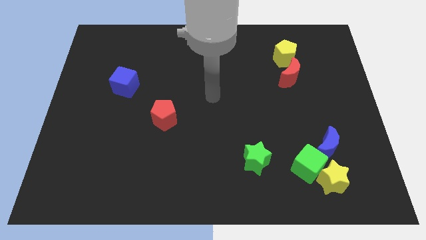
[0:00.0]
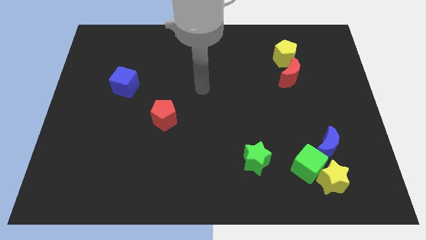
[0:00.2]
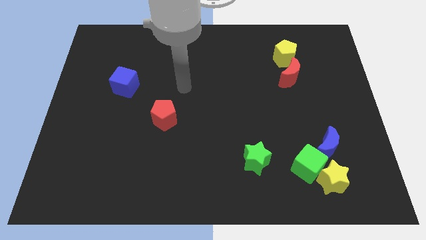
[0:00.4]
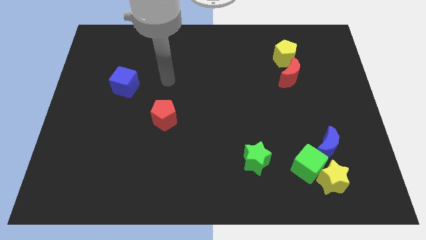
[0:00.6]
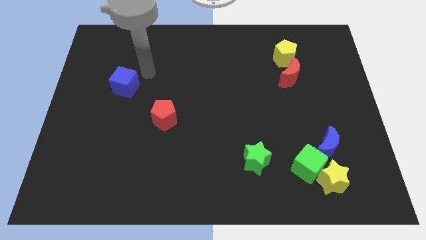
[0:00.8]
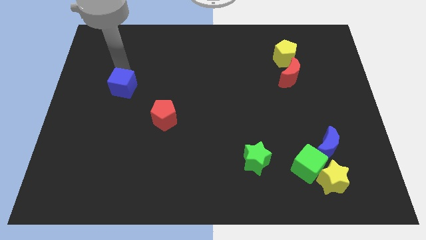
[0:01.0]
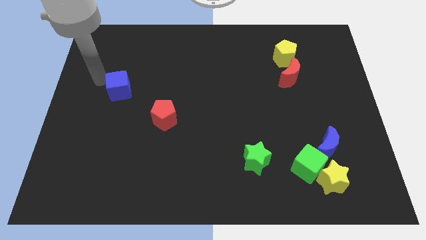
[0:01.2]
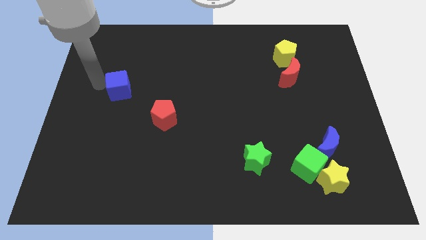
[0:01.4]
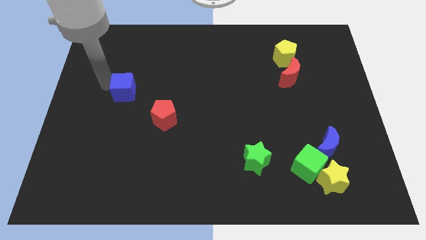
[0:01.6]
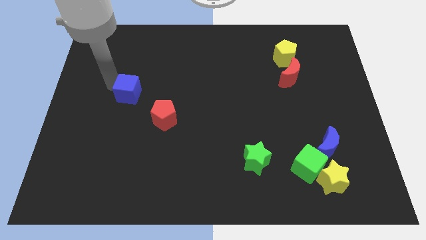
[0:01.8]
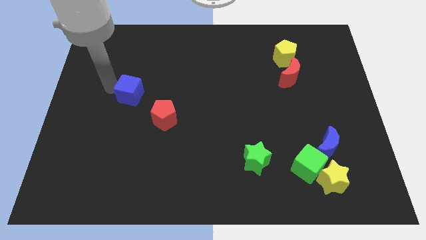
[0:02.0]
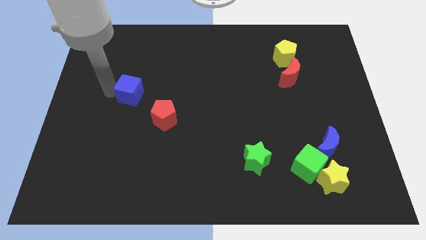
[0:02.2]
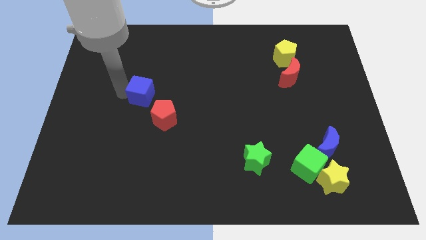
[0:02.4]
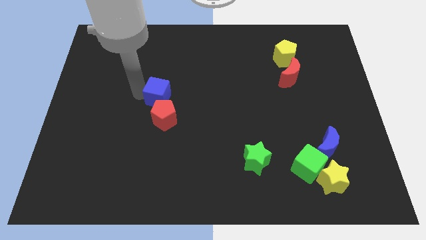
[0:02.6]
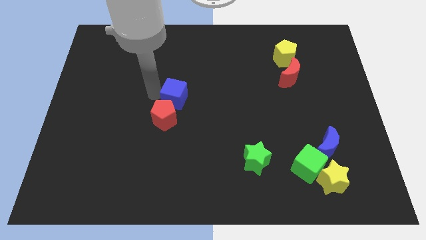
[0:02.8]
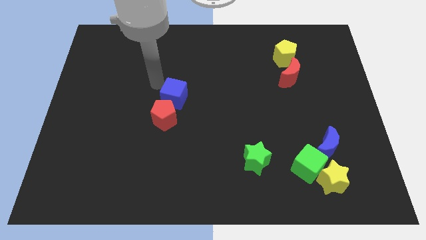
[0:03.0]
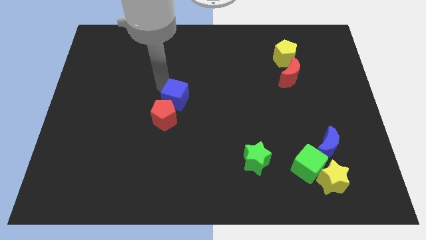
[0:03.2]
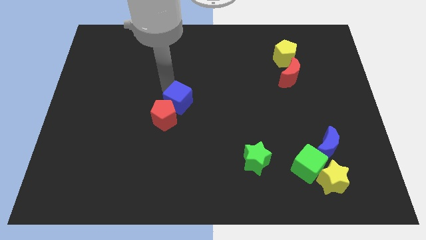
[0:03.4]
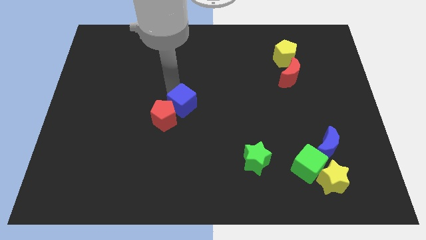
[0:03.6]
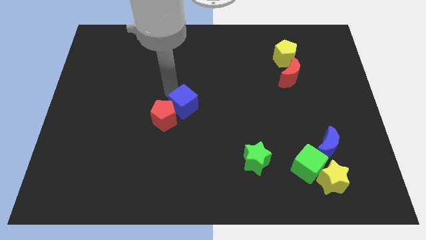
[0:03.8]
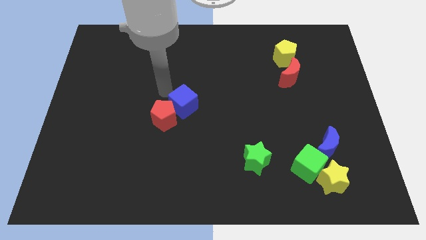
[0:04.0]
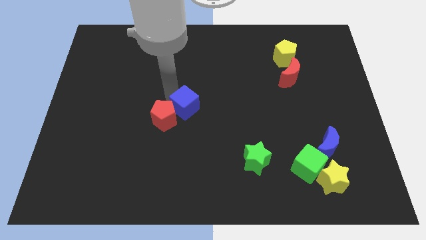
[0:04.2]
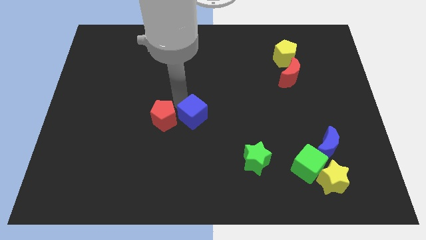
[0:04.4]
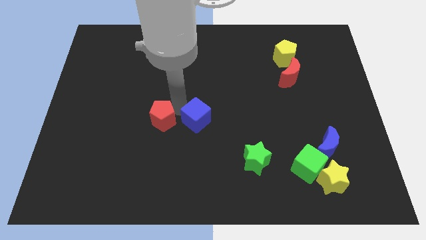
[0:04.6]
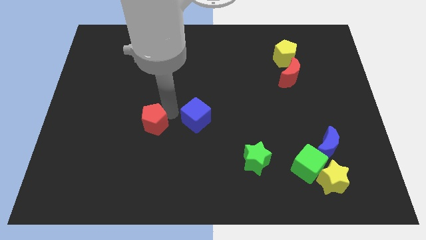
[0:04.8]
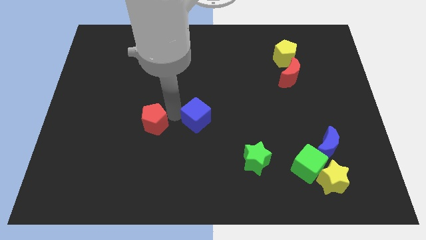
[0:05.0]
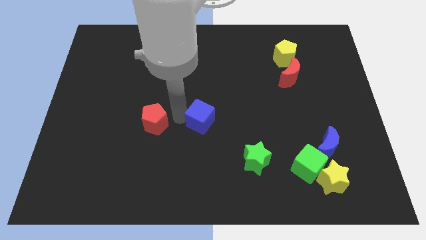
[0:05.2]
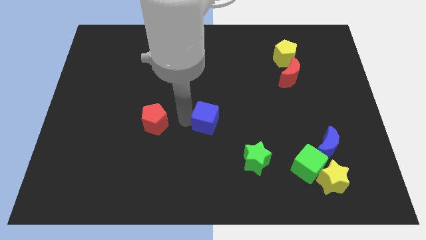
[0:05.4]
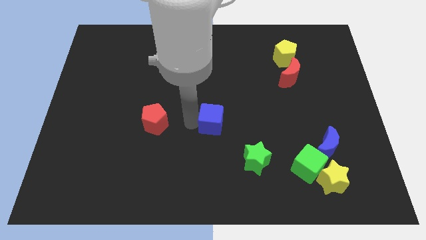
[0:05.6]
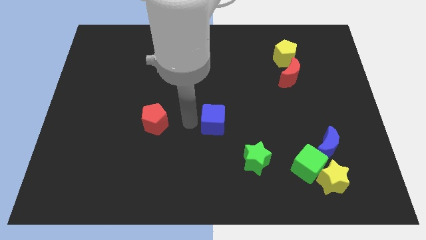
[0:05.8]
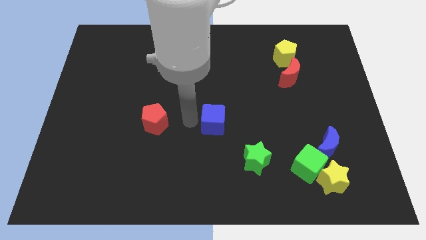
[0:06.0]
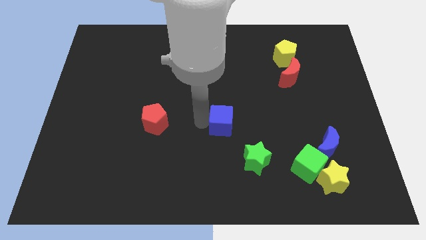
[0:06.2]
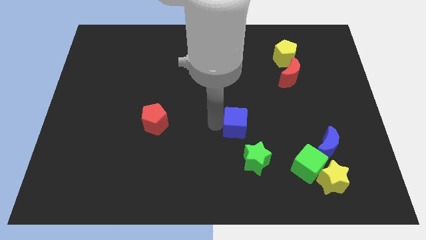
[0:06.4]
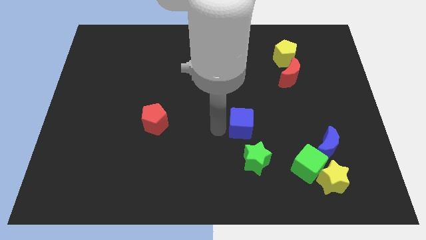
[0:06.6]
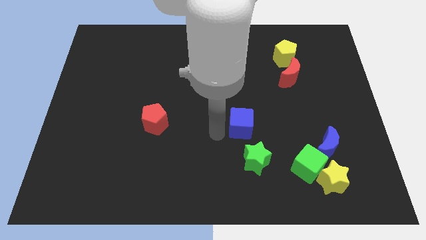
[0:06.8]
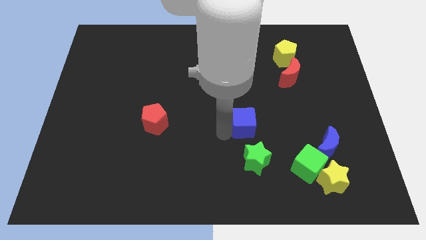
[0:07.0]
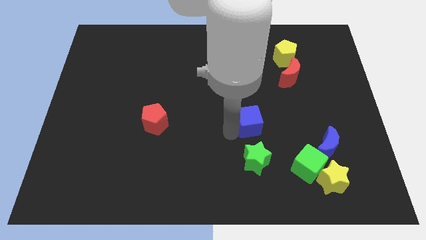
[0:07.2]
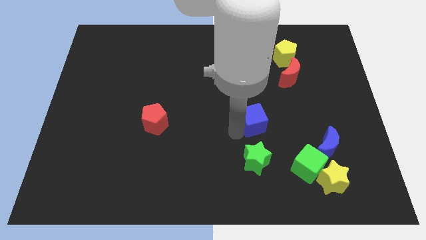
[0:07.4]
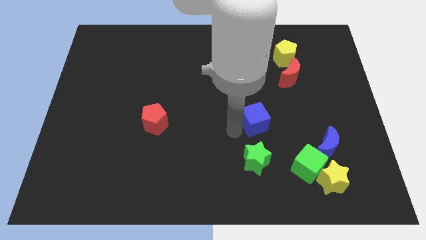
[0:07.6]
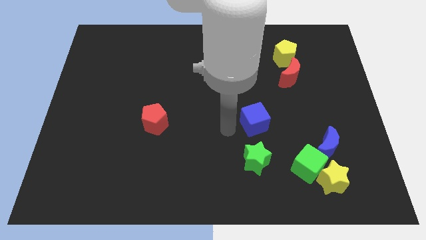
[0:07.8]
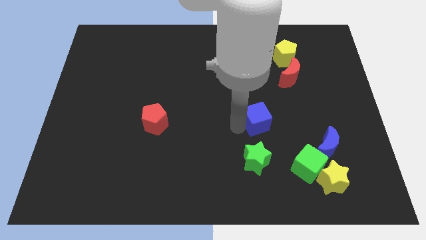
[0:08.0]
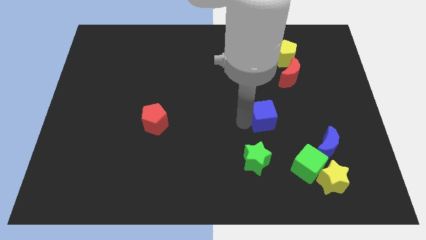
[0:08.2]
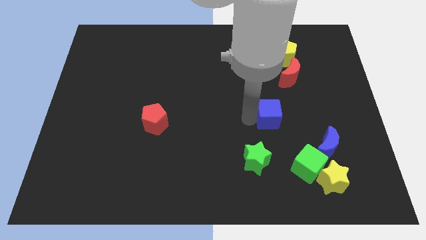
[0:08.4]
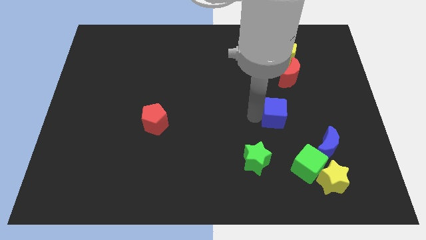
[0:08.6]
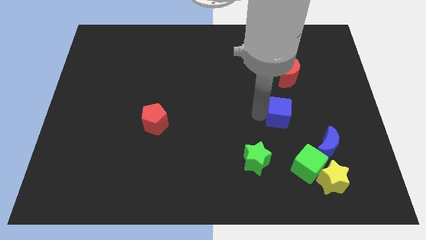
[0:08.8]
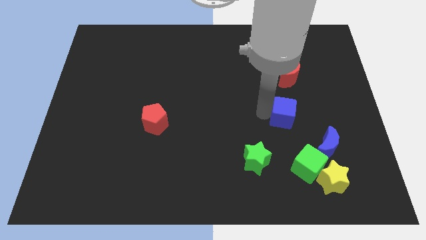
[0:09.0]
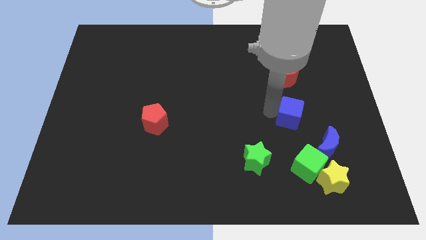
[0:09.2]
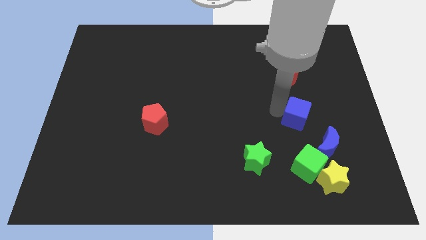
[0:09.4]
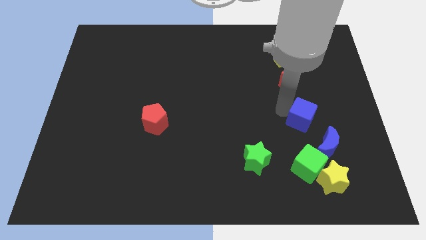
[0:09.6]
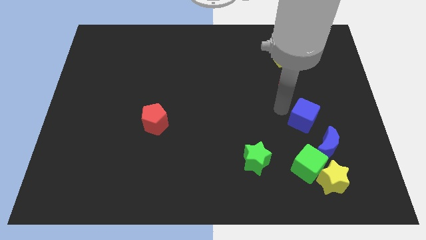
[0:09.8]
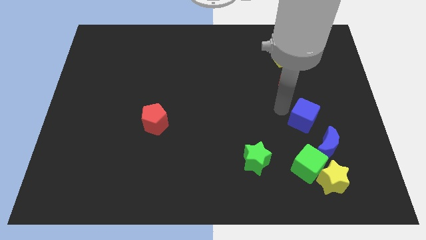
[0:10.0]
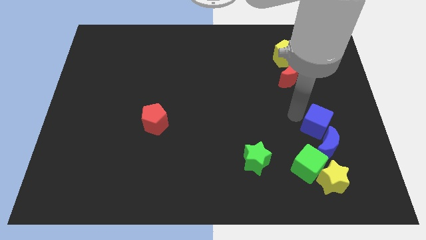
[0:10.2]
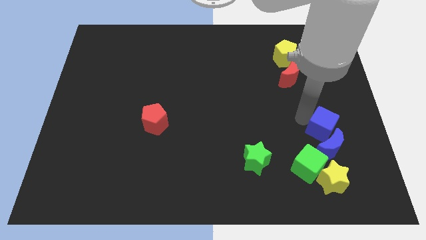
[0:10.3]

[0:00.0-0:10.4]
slide the blue cube to the top right of the green cube
